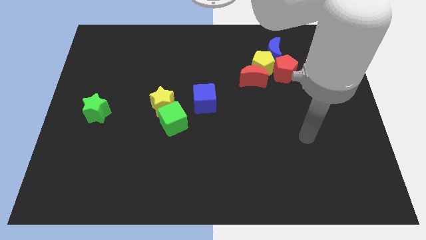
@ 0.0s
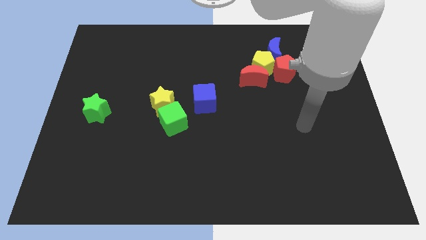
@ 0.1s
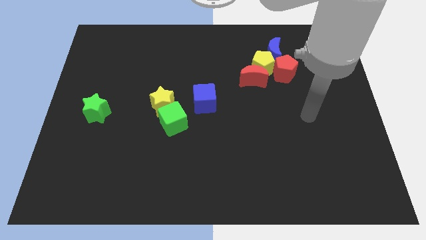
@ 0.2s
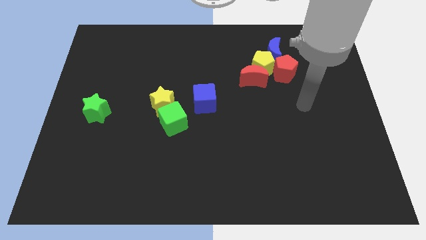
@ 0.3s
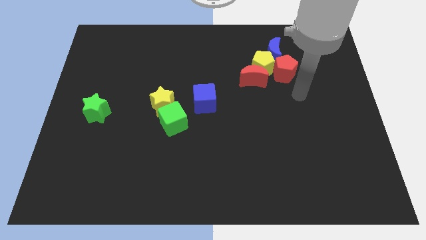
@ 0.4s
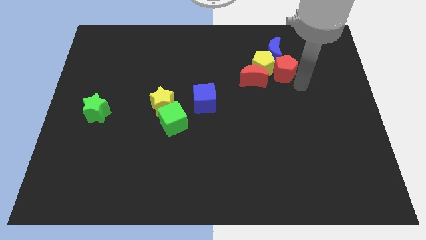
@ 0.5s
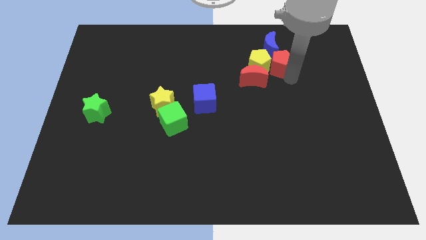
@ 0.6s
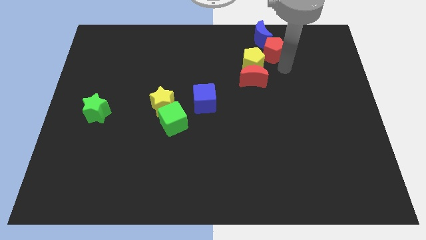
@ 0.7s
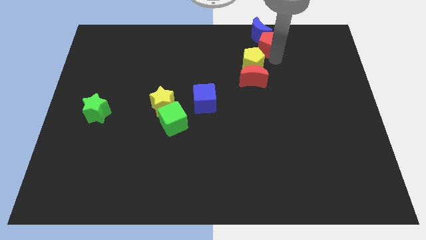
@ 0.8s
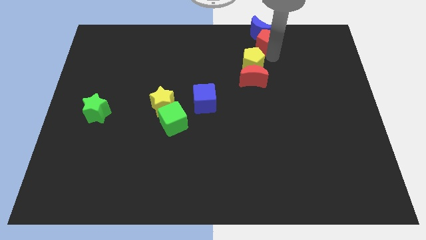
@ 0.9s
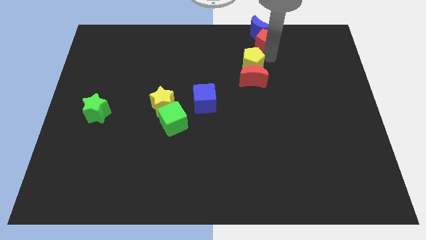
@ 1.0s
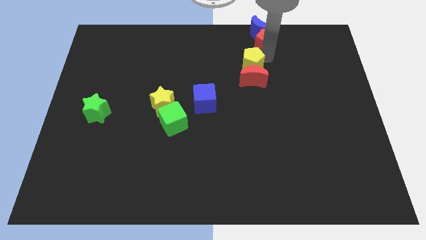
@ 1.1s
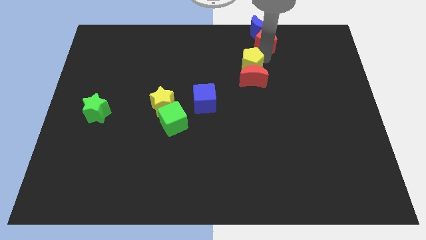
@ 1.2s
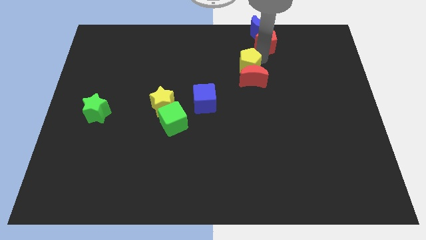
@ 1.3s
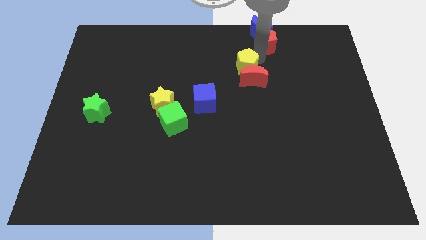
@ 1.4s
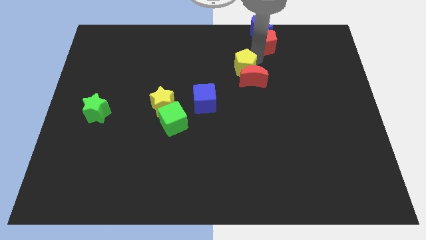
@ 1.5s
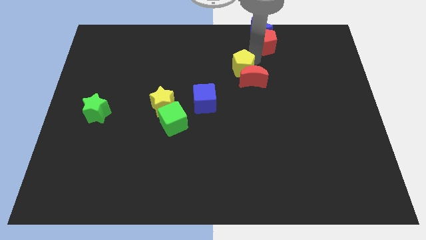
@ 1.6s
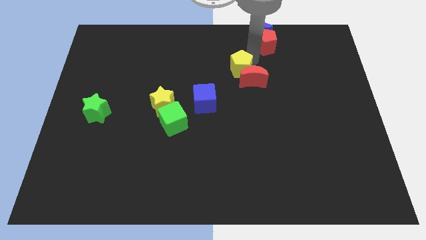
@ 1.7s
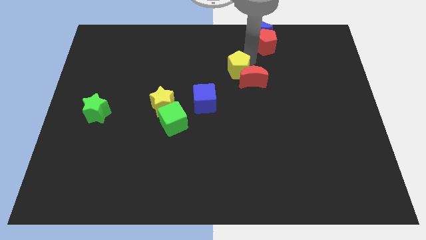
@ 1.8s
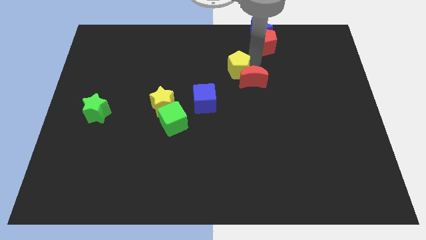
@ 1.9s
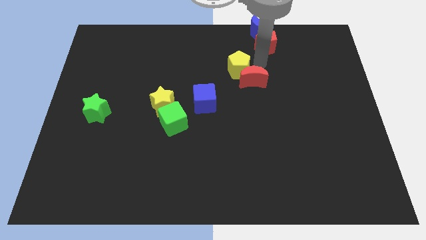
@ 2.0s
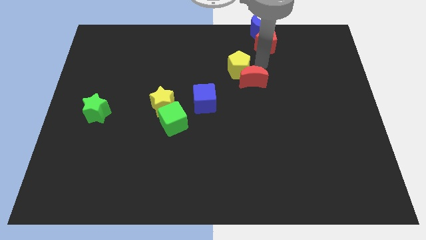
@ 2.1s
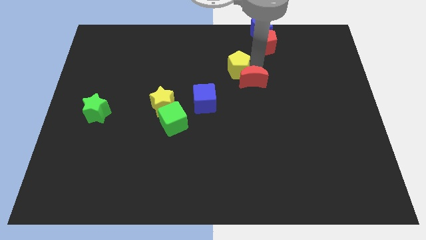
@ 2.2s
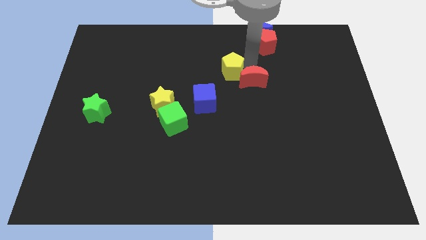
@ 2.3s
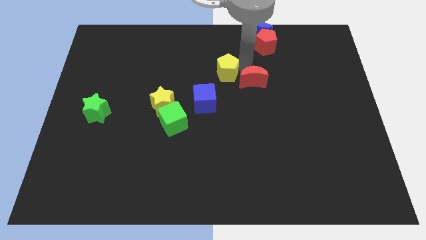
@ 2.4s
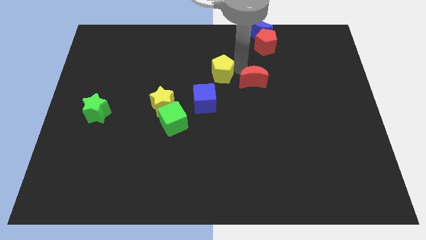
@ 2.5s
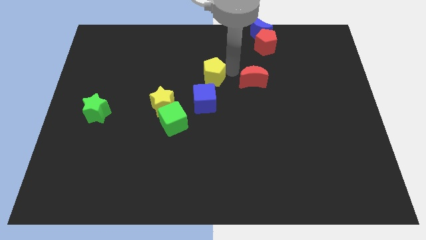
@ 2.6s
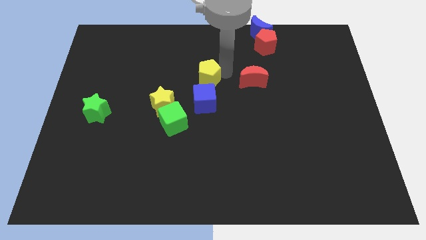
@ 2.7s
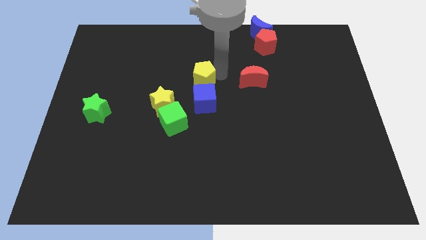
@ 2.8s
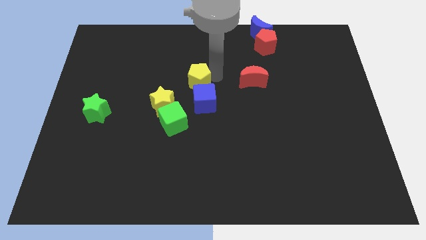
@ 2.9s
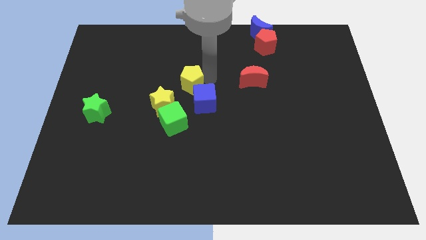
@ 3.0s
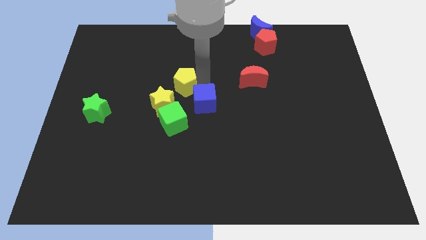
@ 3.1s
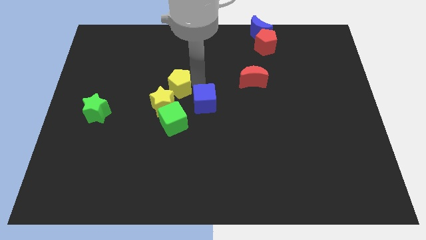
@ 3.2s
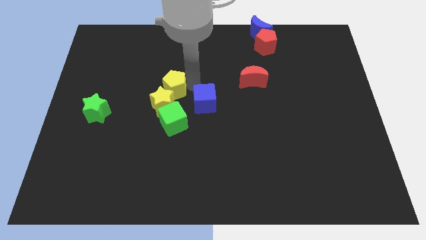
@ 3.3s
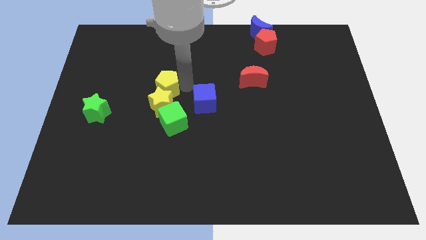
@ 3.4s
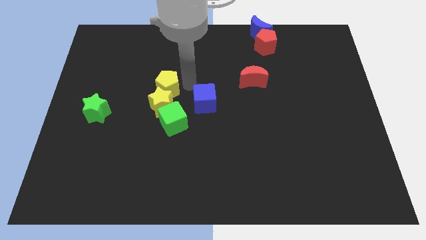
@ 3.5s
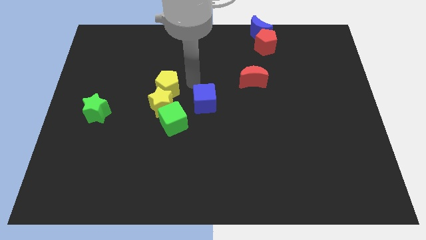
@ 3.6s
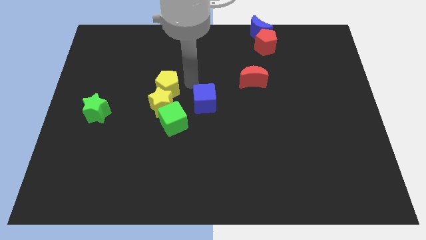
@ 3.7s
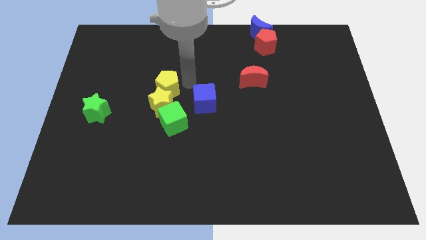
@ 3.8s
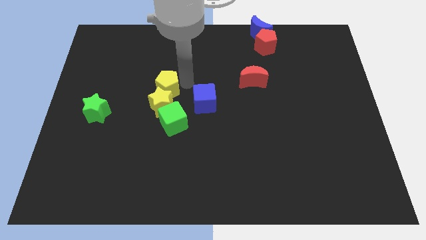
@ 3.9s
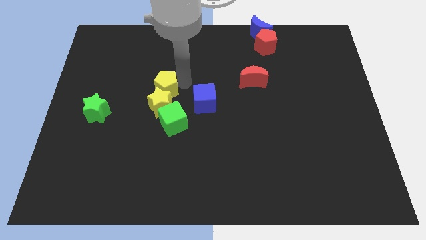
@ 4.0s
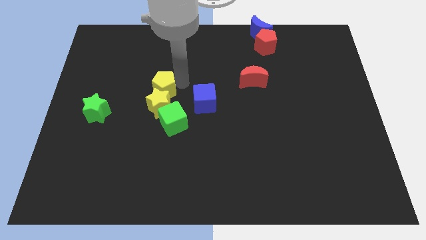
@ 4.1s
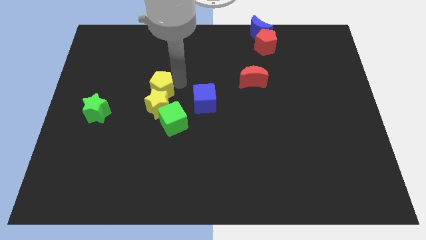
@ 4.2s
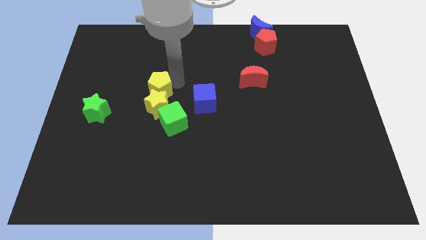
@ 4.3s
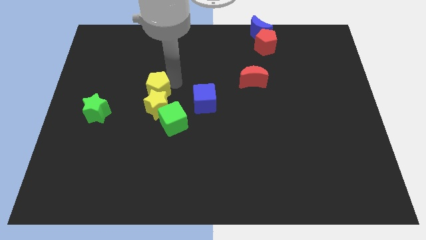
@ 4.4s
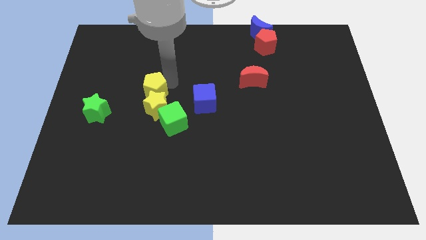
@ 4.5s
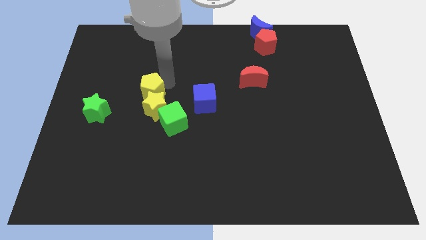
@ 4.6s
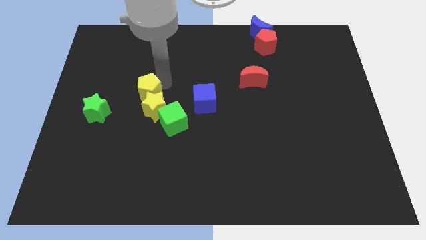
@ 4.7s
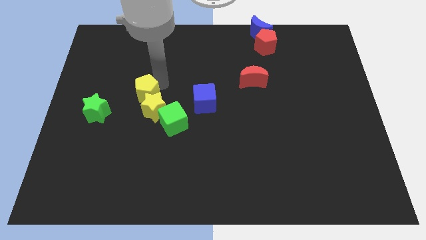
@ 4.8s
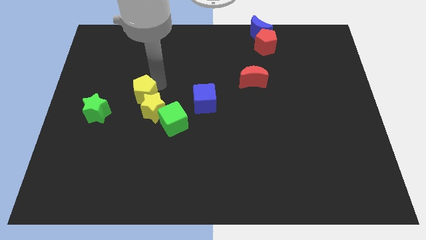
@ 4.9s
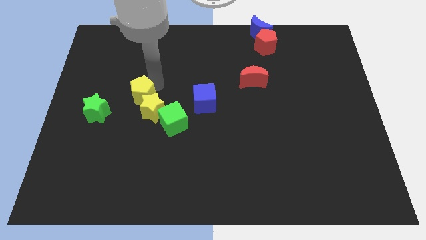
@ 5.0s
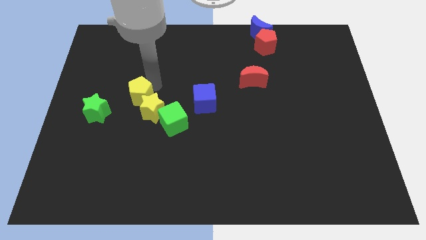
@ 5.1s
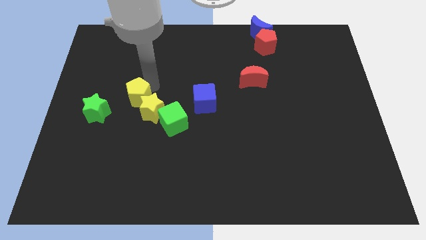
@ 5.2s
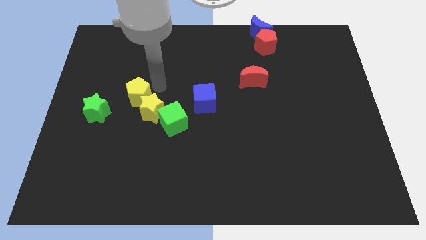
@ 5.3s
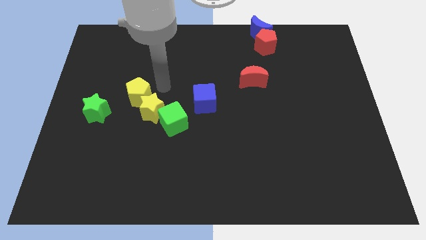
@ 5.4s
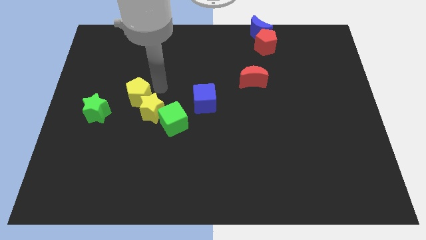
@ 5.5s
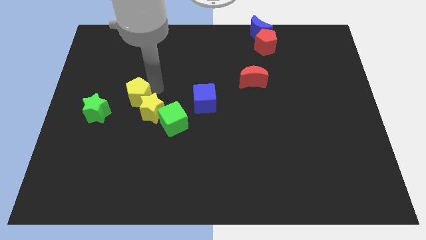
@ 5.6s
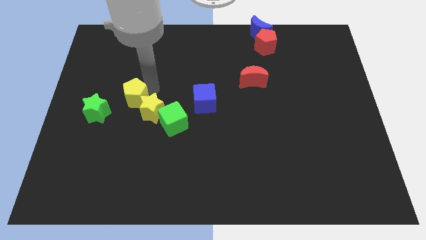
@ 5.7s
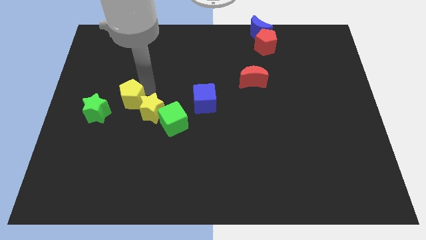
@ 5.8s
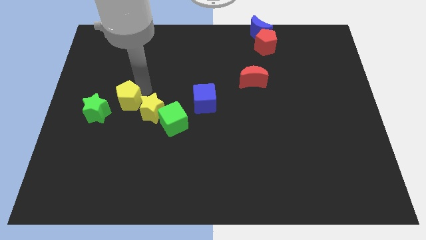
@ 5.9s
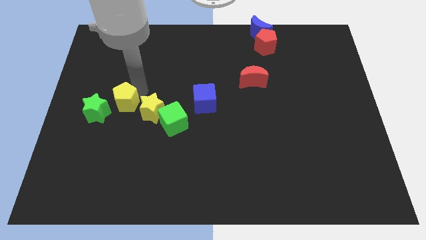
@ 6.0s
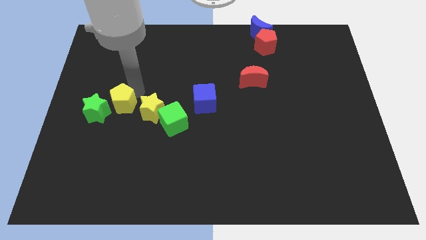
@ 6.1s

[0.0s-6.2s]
move the yellow pentagon next to the green star

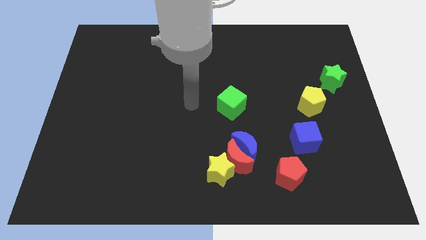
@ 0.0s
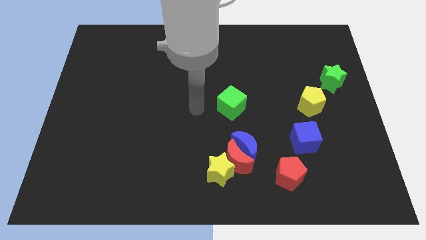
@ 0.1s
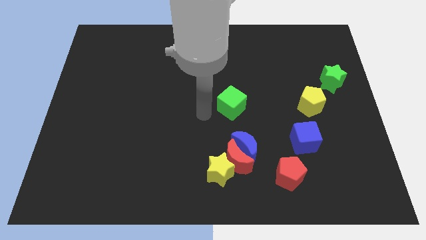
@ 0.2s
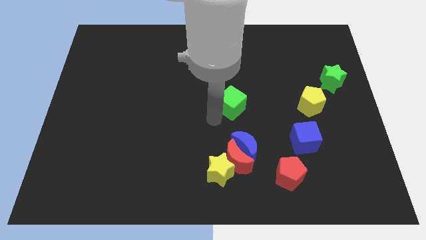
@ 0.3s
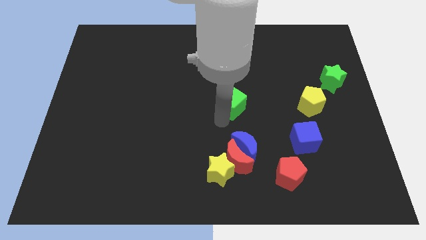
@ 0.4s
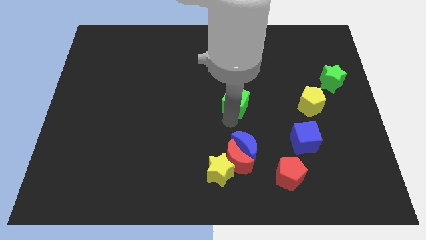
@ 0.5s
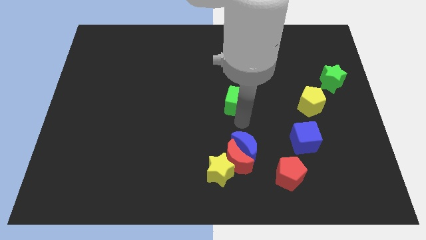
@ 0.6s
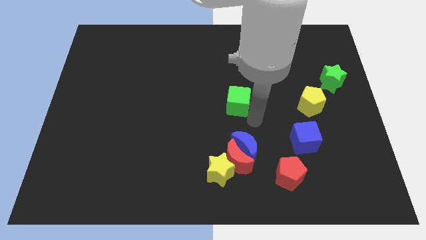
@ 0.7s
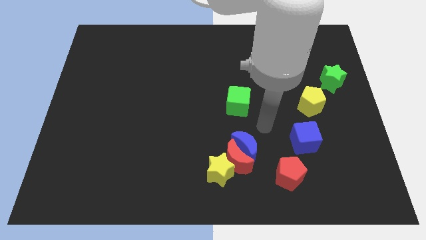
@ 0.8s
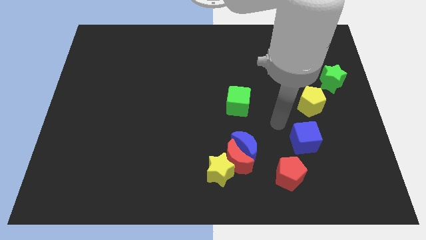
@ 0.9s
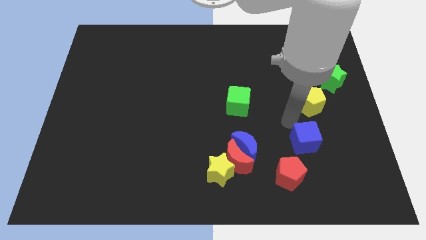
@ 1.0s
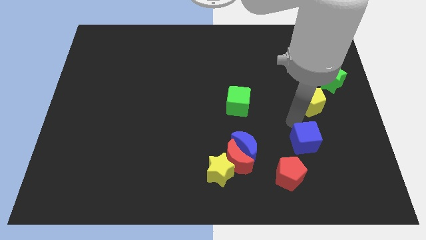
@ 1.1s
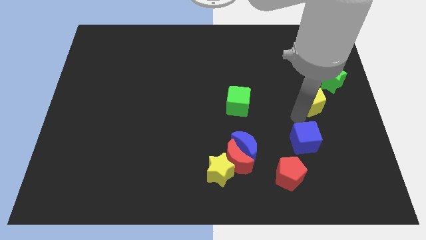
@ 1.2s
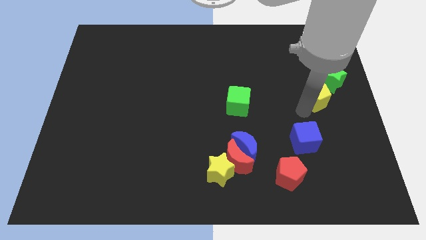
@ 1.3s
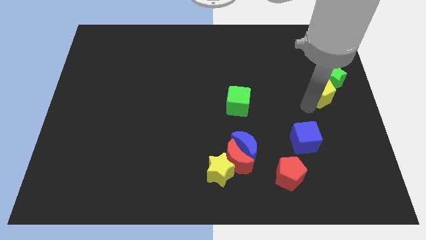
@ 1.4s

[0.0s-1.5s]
put the yellow pentagon next to the green star
